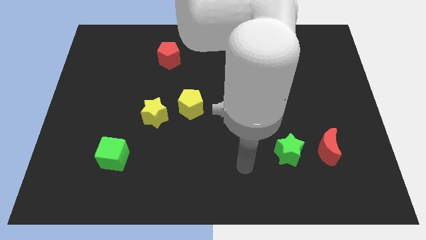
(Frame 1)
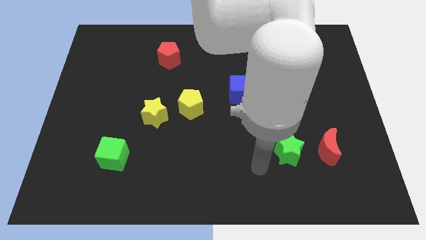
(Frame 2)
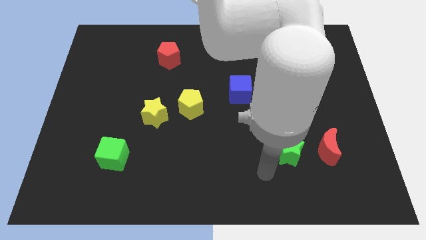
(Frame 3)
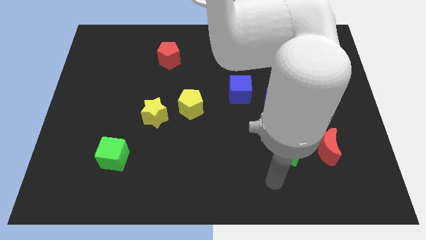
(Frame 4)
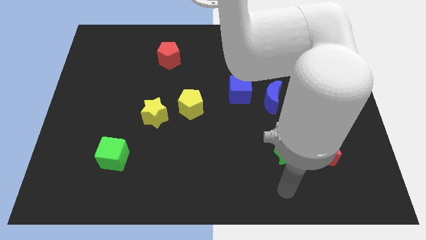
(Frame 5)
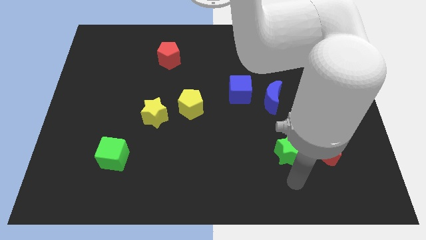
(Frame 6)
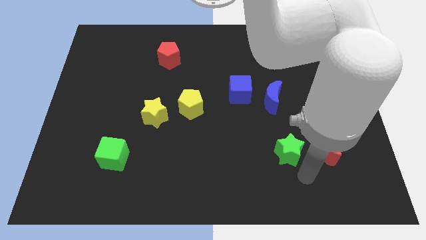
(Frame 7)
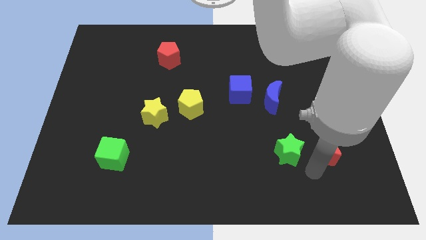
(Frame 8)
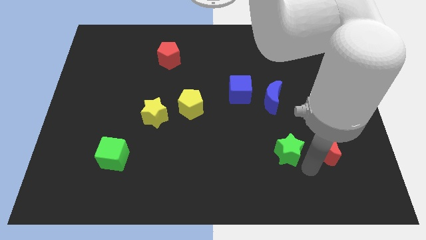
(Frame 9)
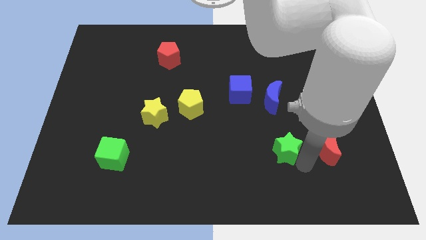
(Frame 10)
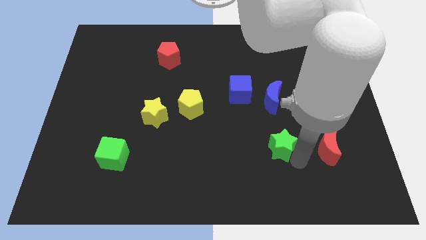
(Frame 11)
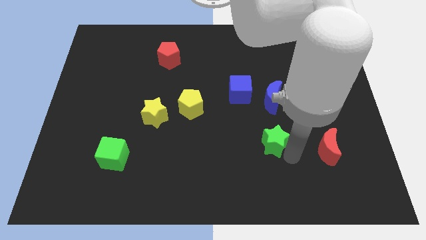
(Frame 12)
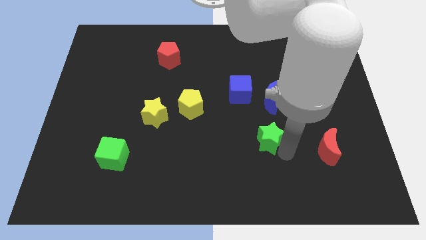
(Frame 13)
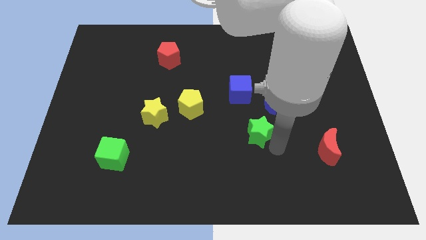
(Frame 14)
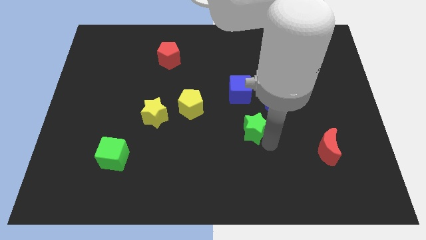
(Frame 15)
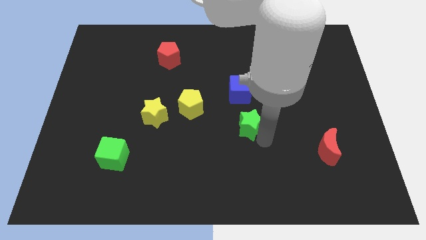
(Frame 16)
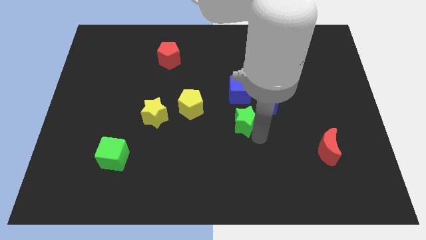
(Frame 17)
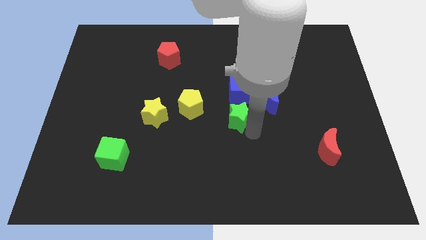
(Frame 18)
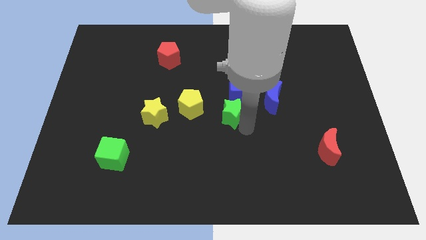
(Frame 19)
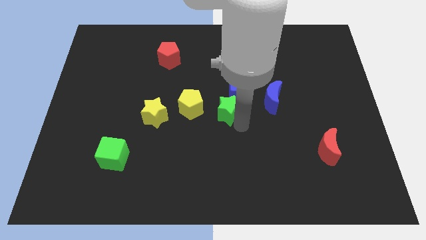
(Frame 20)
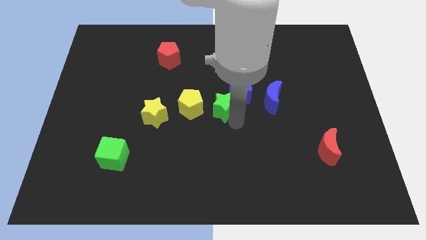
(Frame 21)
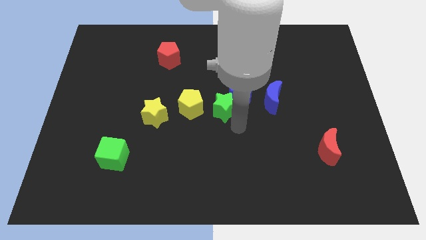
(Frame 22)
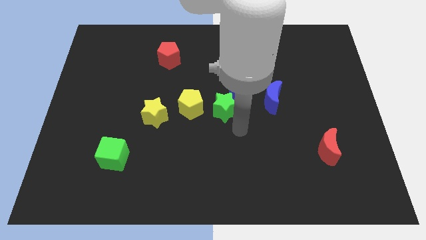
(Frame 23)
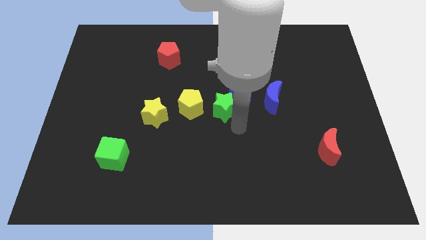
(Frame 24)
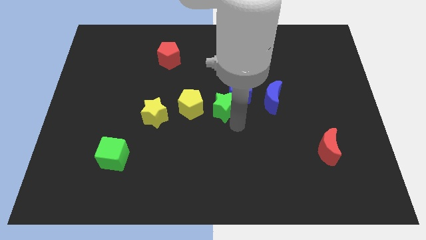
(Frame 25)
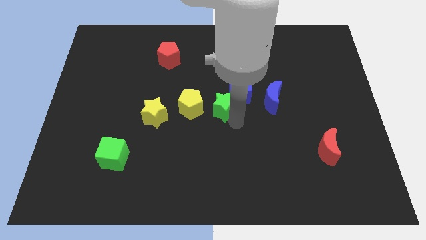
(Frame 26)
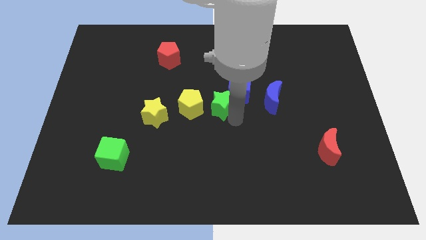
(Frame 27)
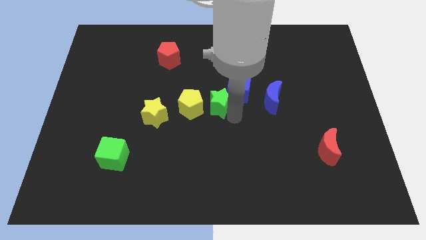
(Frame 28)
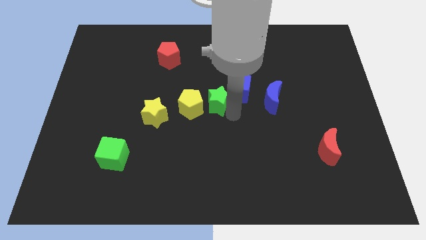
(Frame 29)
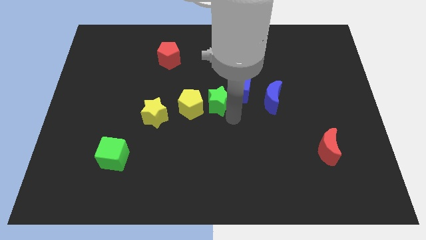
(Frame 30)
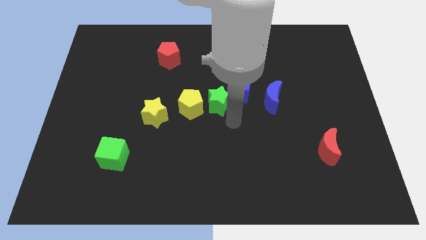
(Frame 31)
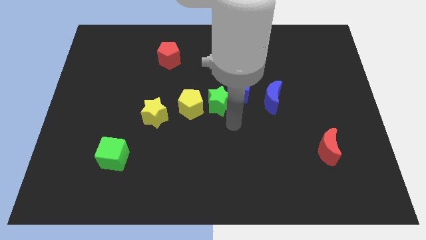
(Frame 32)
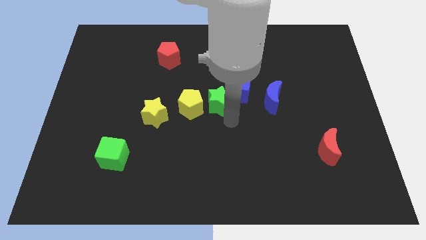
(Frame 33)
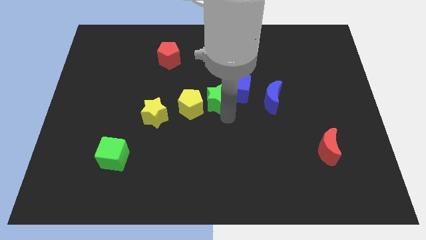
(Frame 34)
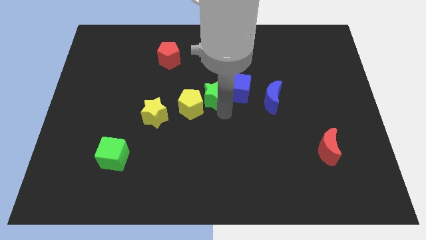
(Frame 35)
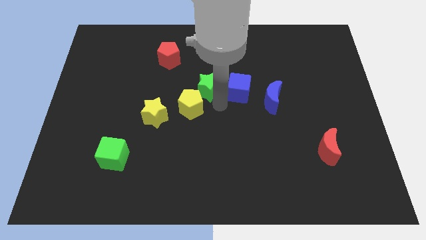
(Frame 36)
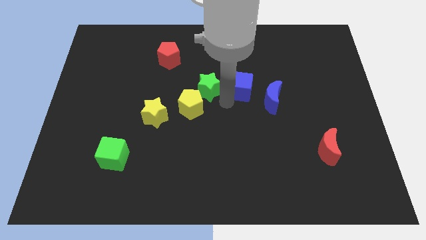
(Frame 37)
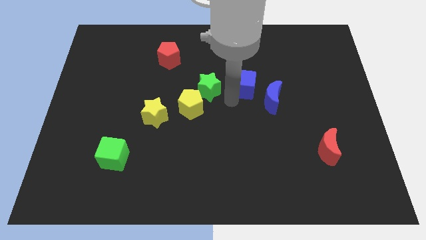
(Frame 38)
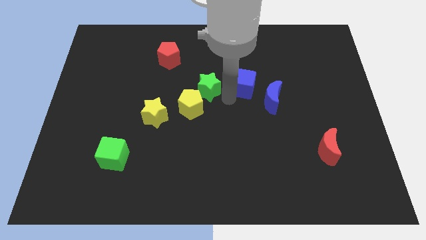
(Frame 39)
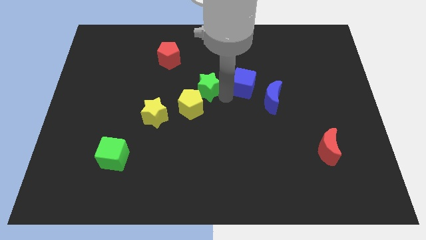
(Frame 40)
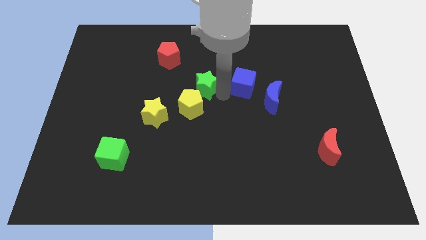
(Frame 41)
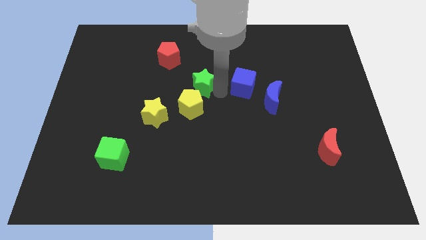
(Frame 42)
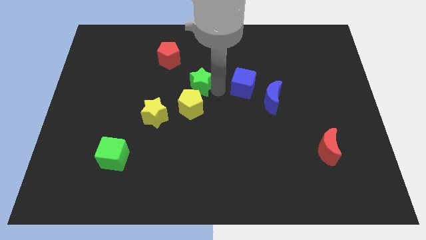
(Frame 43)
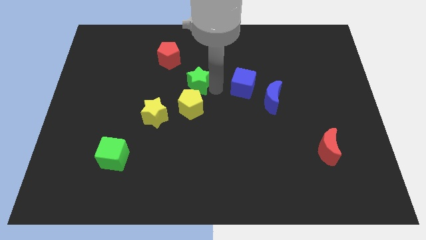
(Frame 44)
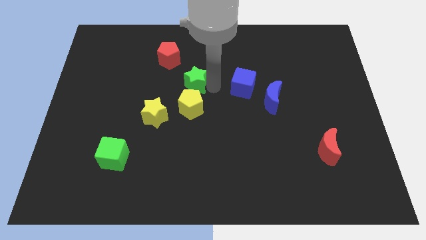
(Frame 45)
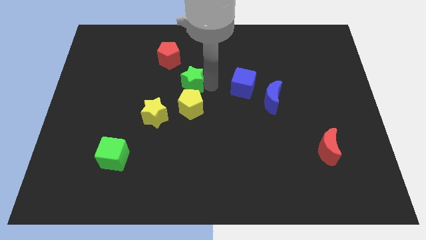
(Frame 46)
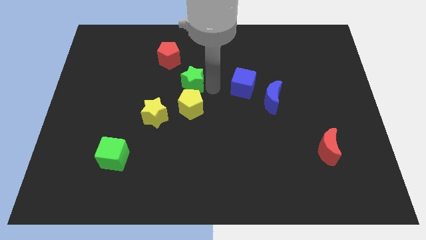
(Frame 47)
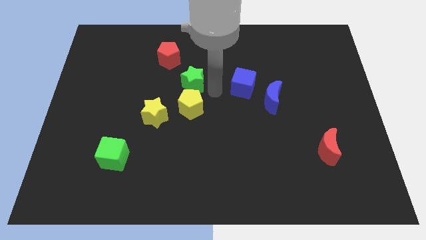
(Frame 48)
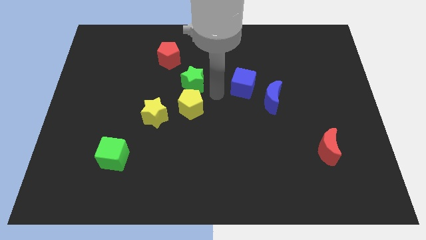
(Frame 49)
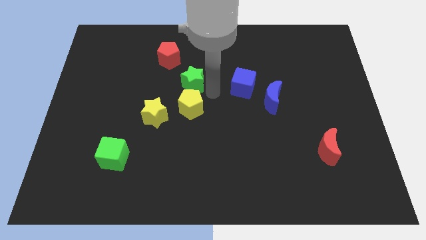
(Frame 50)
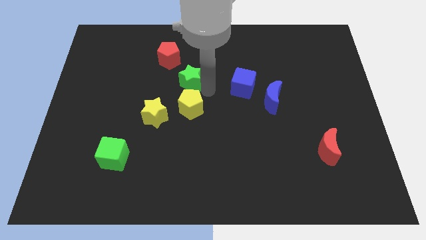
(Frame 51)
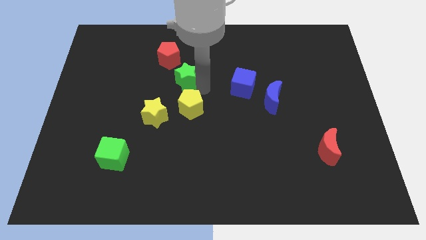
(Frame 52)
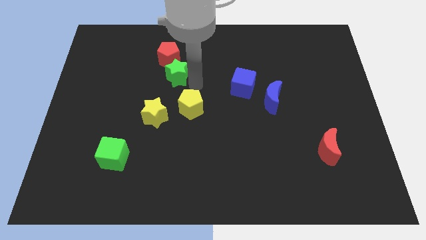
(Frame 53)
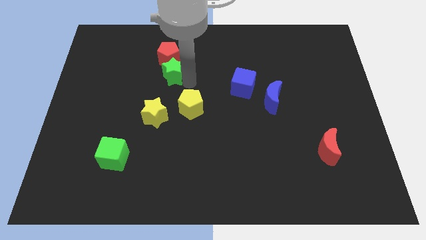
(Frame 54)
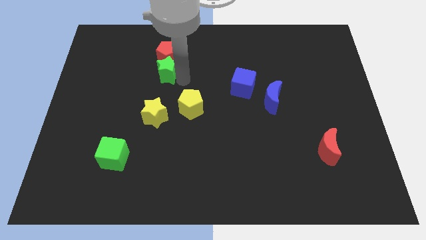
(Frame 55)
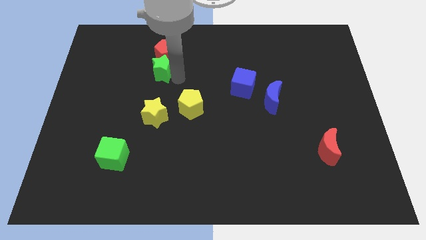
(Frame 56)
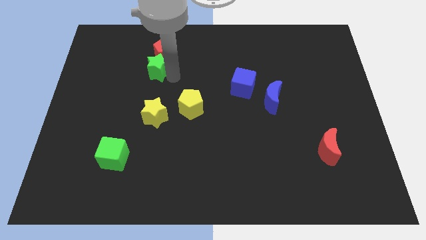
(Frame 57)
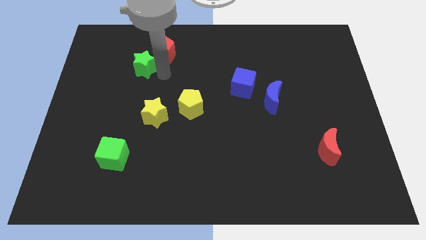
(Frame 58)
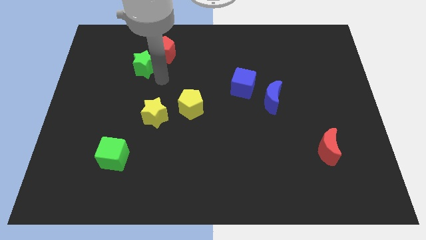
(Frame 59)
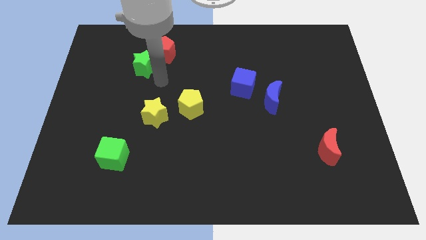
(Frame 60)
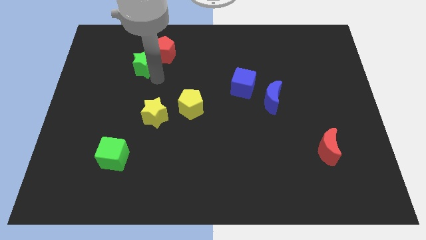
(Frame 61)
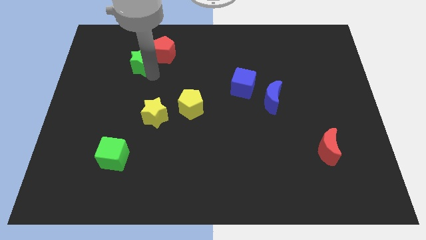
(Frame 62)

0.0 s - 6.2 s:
slide the green star to the left of the red pentagon
